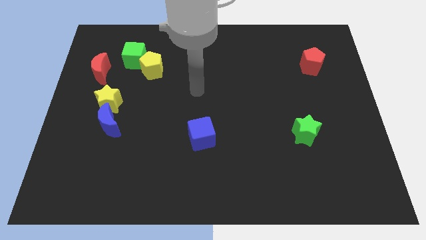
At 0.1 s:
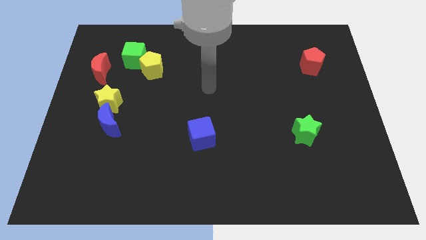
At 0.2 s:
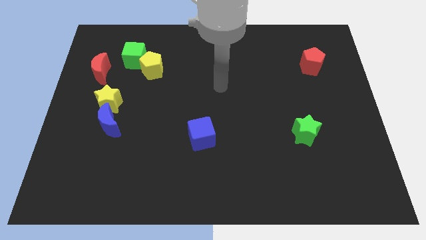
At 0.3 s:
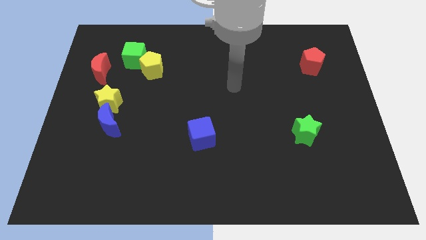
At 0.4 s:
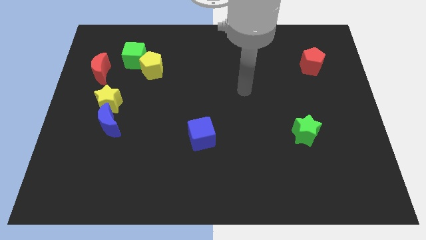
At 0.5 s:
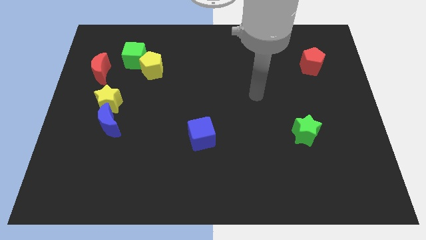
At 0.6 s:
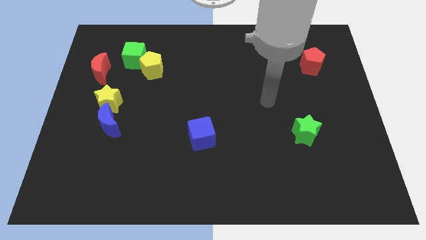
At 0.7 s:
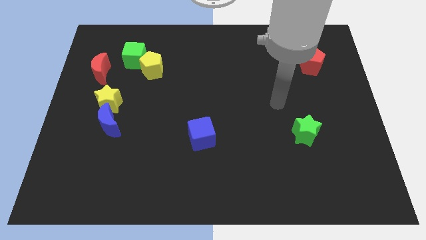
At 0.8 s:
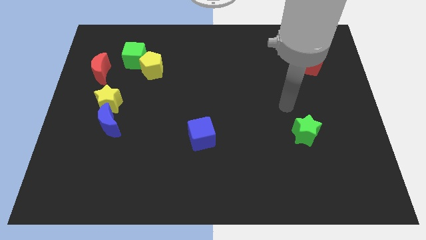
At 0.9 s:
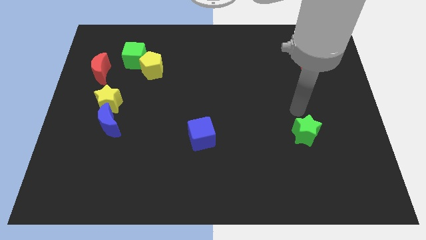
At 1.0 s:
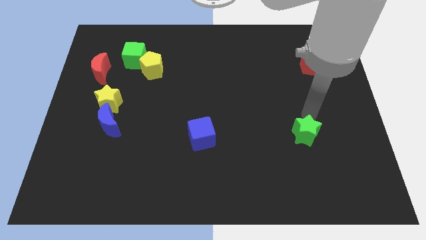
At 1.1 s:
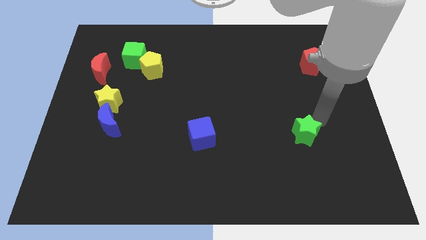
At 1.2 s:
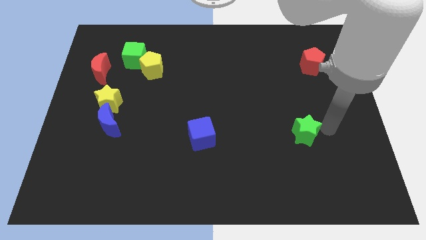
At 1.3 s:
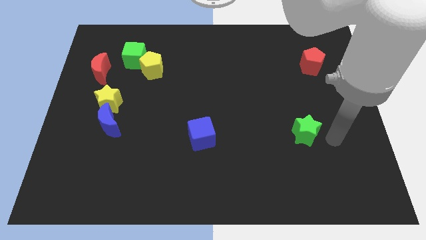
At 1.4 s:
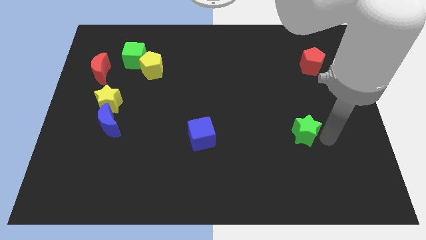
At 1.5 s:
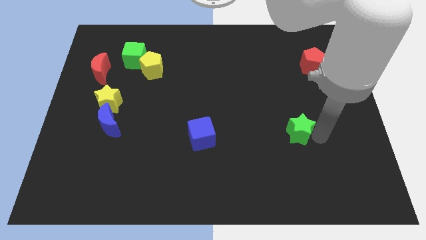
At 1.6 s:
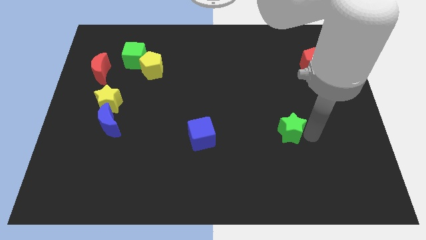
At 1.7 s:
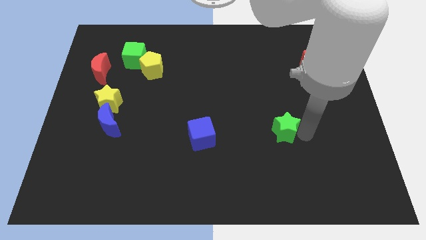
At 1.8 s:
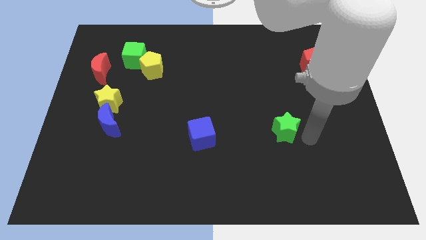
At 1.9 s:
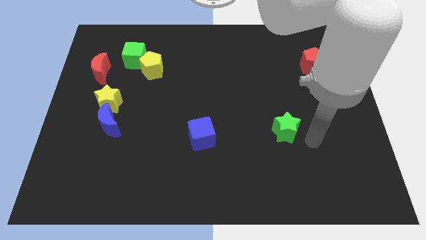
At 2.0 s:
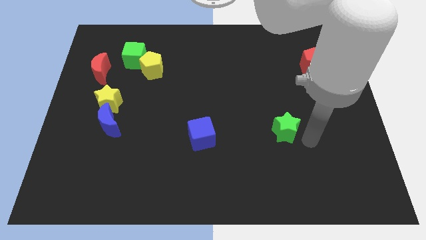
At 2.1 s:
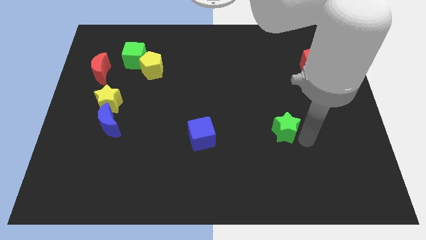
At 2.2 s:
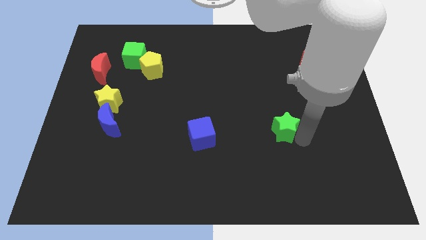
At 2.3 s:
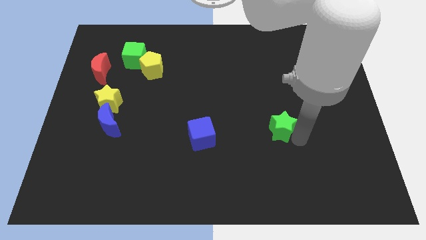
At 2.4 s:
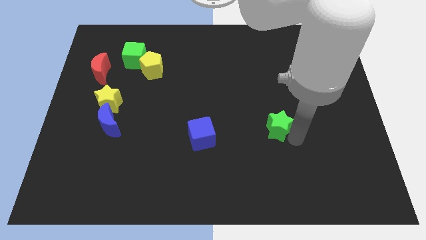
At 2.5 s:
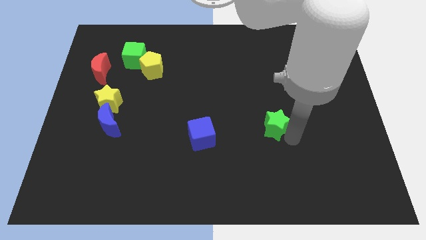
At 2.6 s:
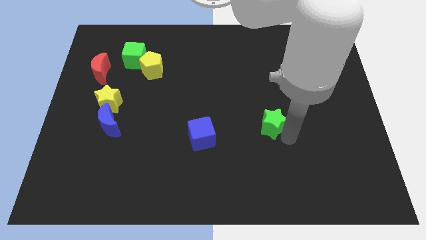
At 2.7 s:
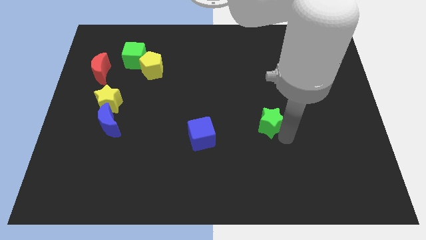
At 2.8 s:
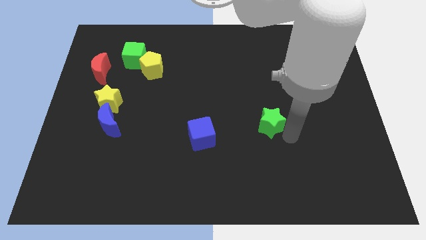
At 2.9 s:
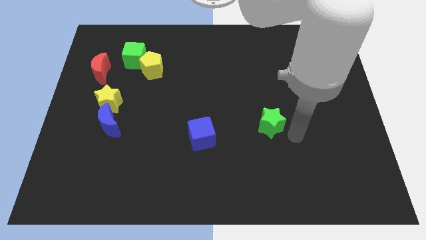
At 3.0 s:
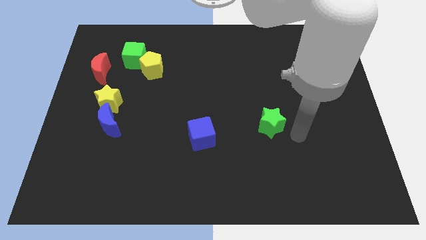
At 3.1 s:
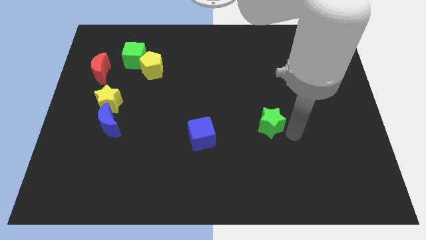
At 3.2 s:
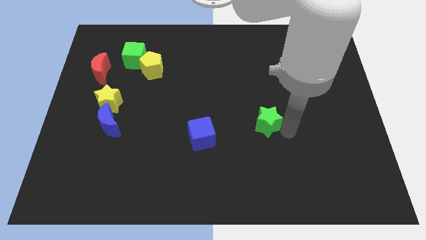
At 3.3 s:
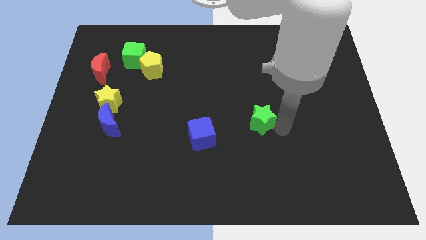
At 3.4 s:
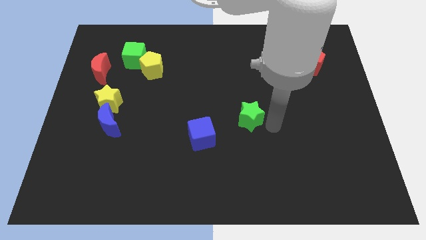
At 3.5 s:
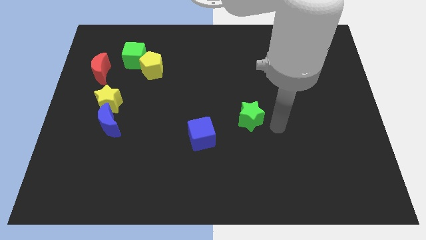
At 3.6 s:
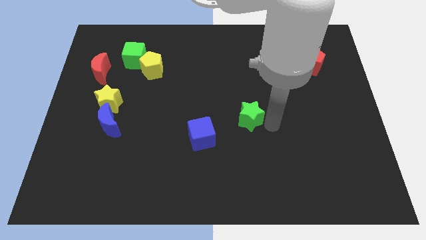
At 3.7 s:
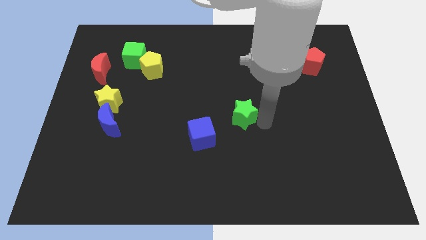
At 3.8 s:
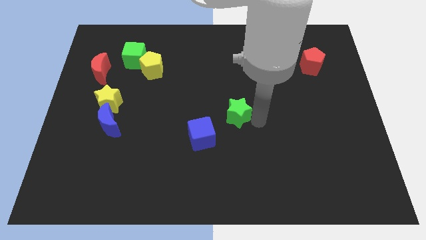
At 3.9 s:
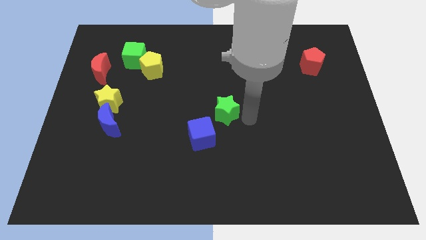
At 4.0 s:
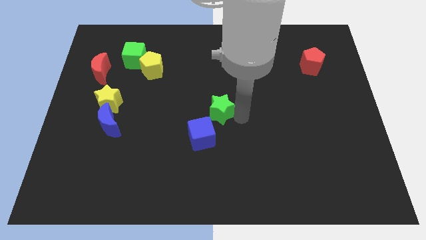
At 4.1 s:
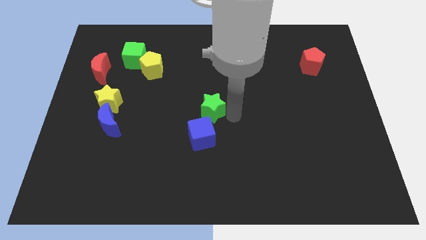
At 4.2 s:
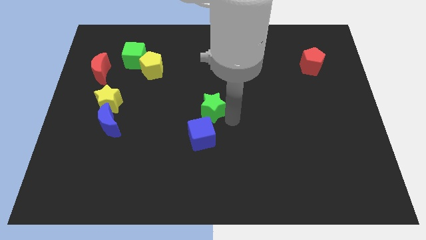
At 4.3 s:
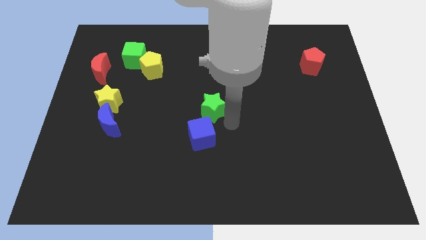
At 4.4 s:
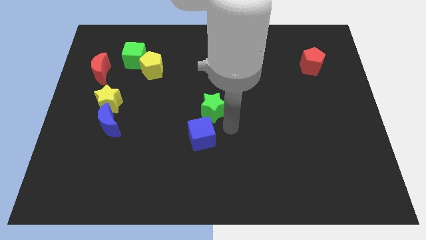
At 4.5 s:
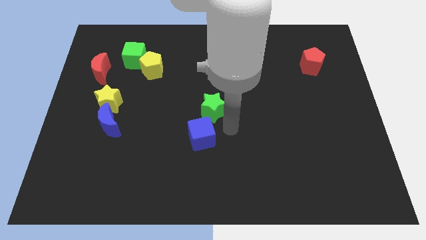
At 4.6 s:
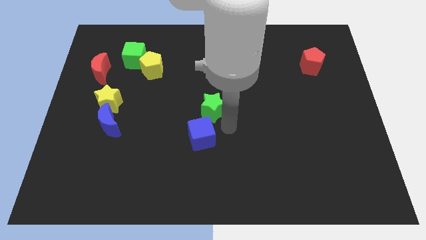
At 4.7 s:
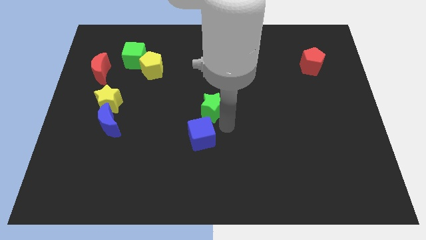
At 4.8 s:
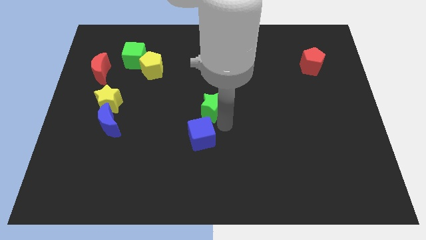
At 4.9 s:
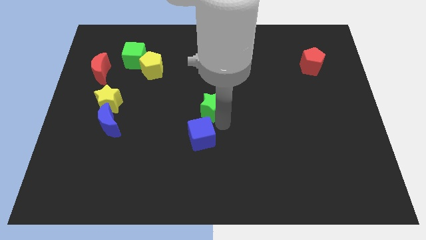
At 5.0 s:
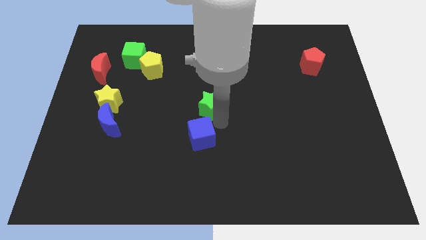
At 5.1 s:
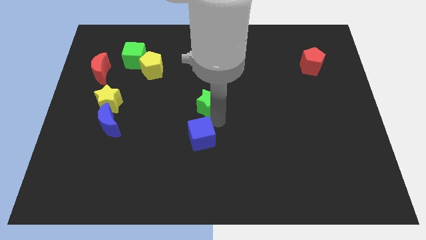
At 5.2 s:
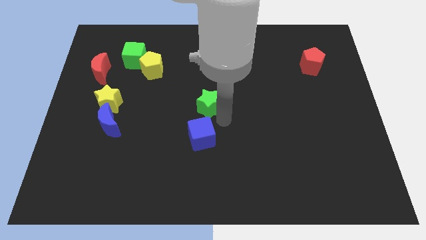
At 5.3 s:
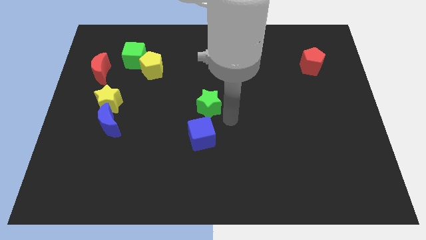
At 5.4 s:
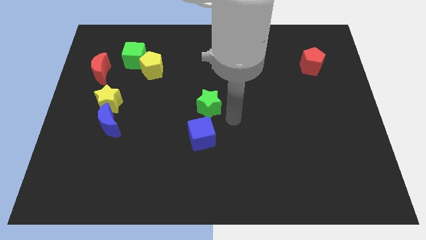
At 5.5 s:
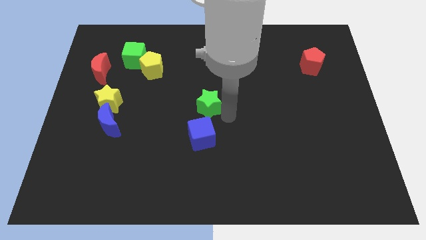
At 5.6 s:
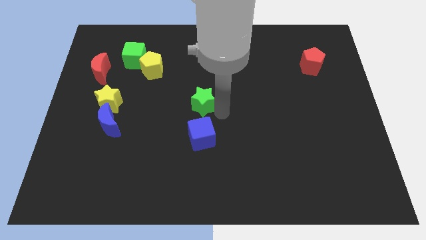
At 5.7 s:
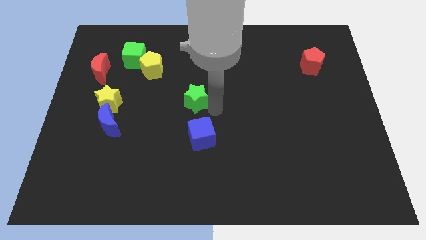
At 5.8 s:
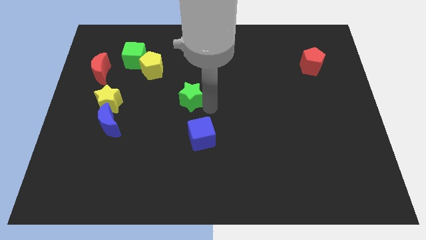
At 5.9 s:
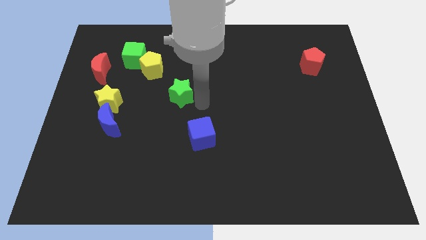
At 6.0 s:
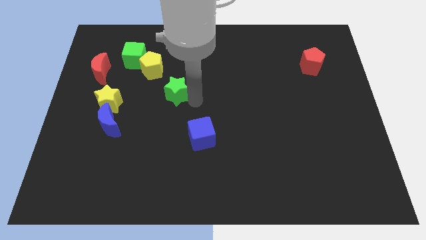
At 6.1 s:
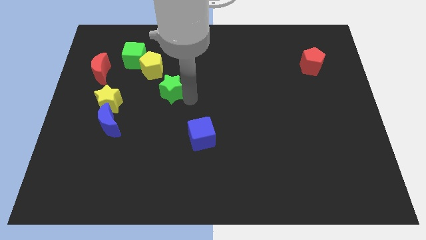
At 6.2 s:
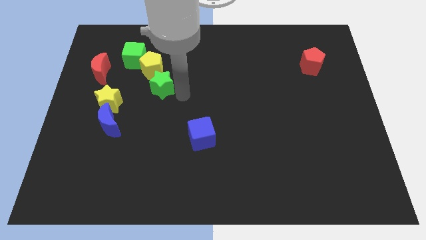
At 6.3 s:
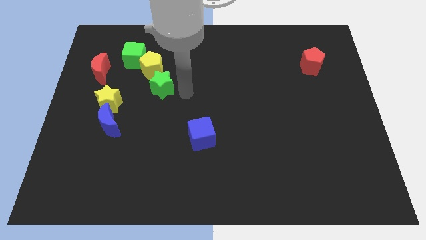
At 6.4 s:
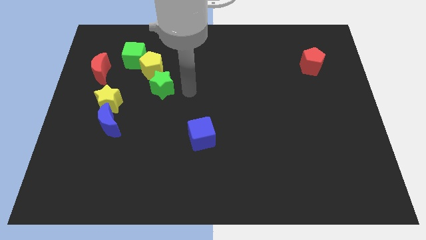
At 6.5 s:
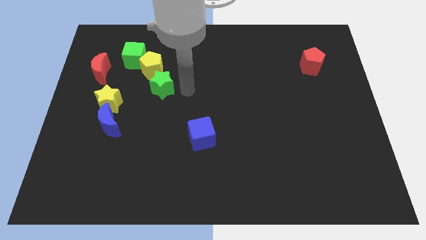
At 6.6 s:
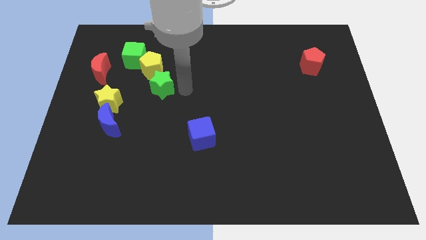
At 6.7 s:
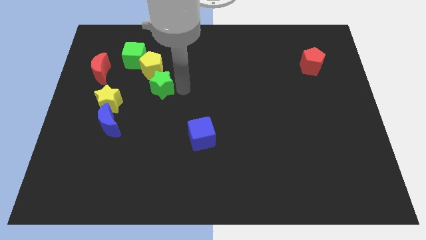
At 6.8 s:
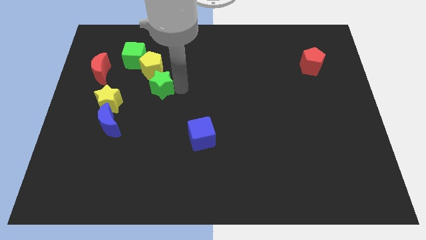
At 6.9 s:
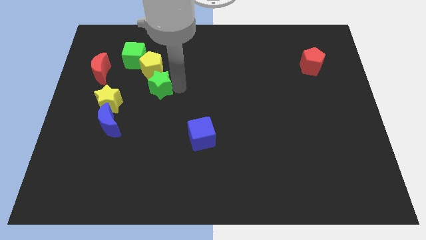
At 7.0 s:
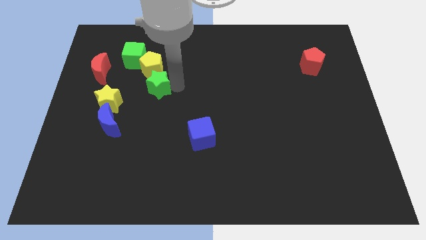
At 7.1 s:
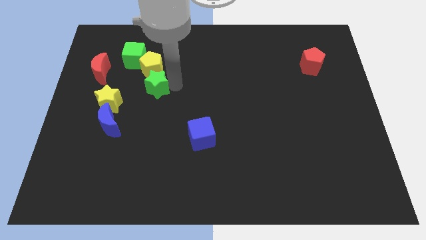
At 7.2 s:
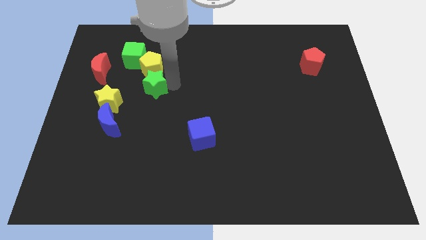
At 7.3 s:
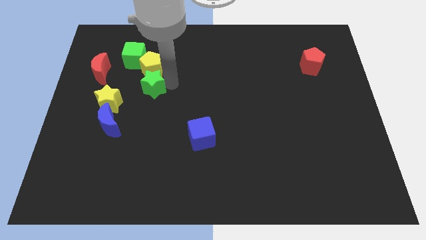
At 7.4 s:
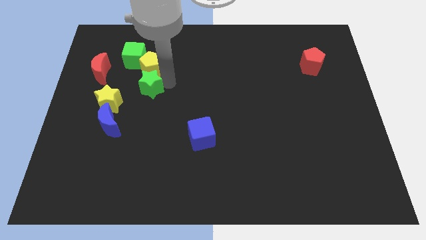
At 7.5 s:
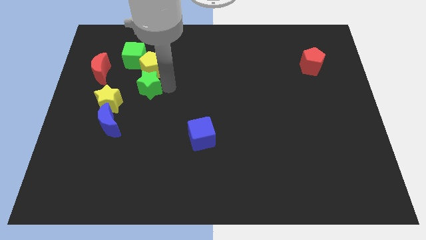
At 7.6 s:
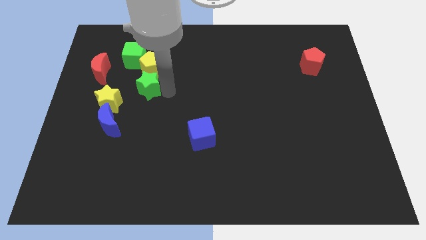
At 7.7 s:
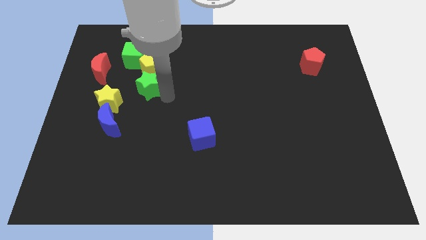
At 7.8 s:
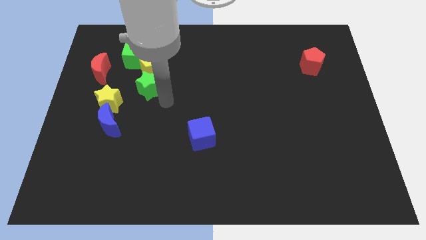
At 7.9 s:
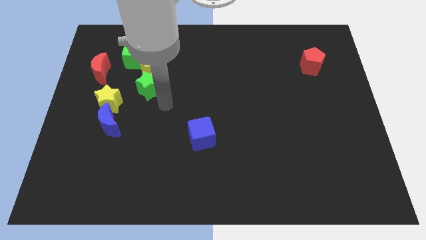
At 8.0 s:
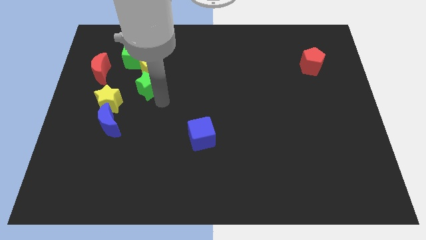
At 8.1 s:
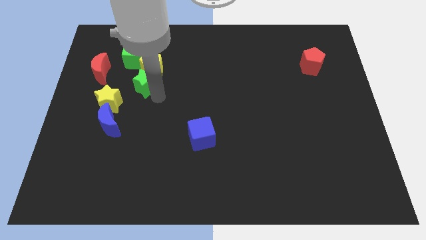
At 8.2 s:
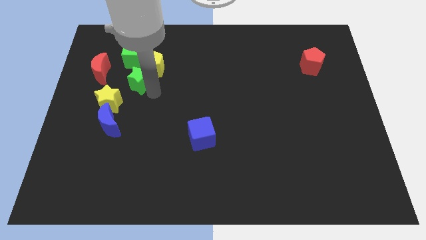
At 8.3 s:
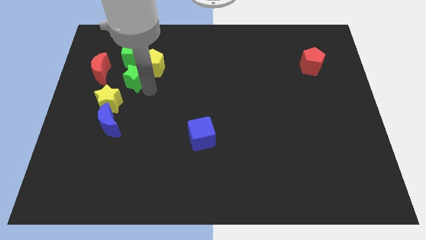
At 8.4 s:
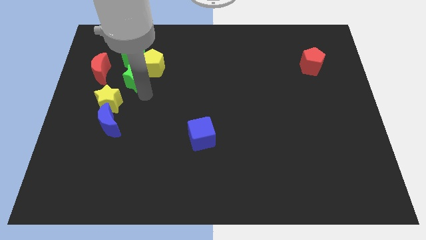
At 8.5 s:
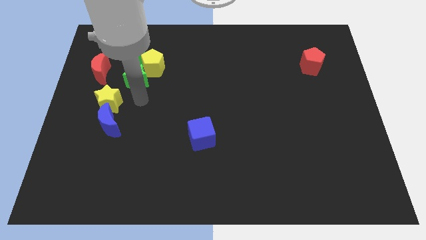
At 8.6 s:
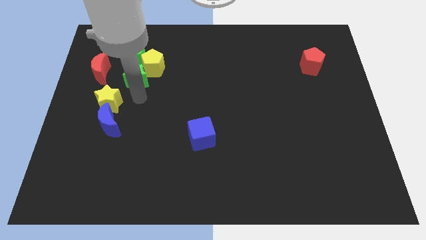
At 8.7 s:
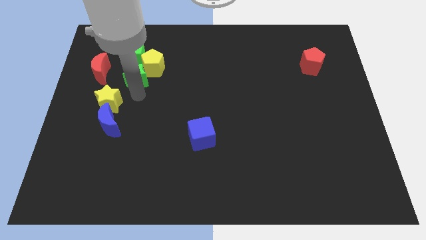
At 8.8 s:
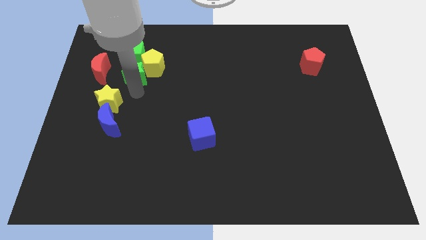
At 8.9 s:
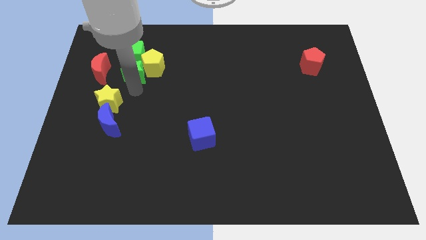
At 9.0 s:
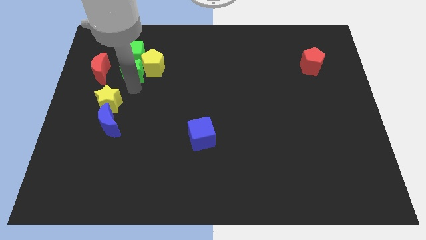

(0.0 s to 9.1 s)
slide the green star towards the green cube
